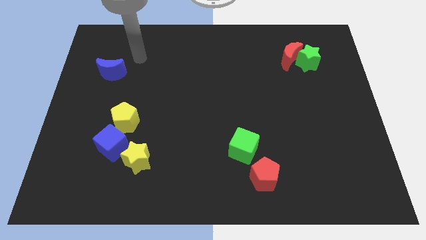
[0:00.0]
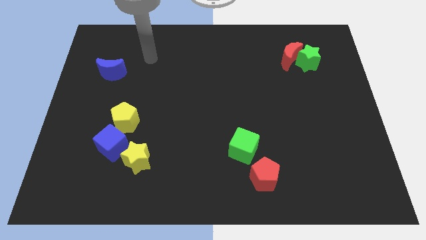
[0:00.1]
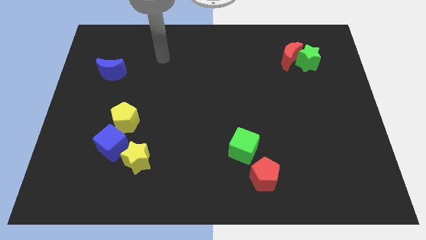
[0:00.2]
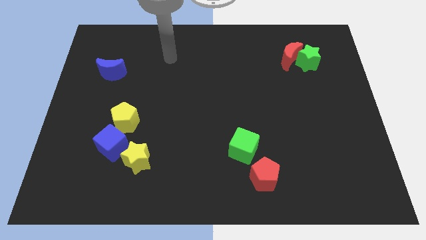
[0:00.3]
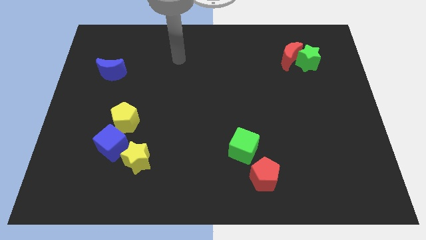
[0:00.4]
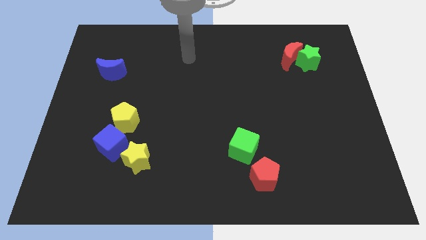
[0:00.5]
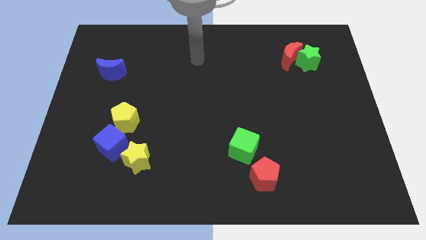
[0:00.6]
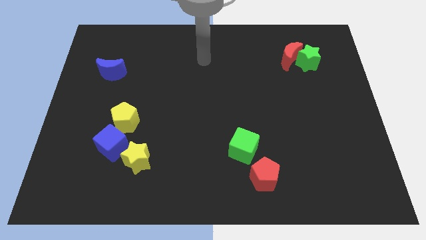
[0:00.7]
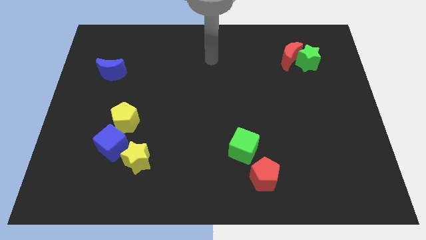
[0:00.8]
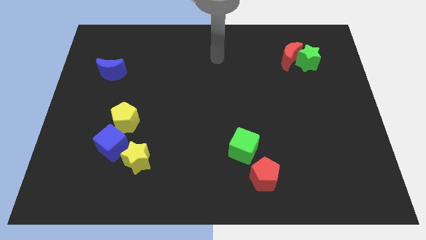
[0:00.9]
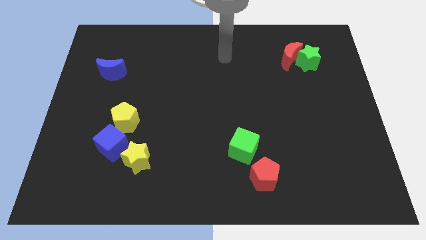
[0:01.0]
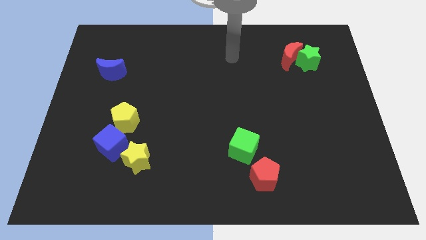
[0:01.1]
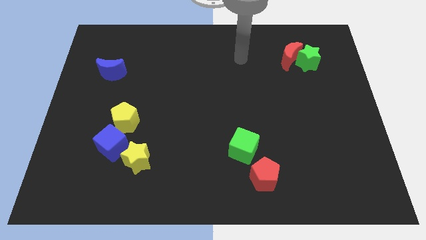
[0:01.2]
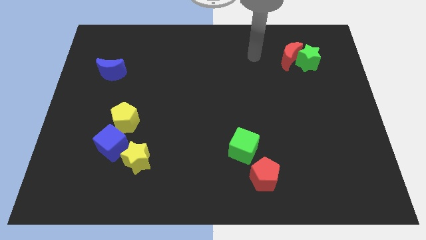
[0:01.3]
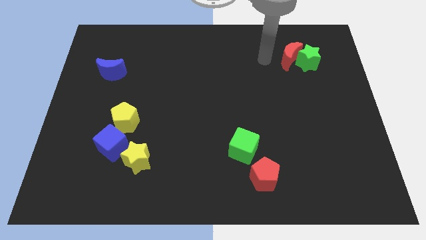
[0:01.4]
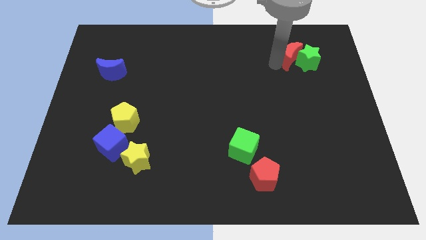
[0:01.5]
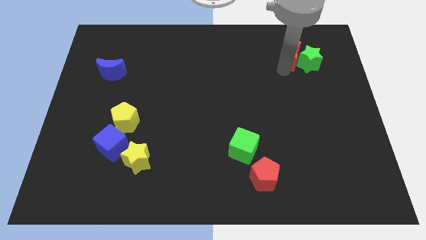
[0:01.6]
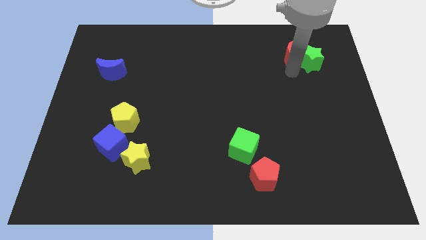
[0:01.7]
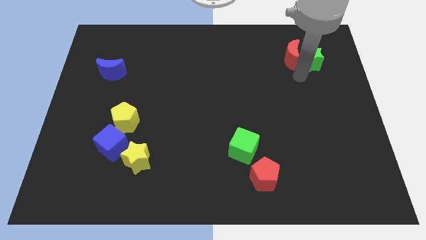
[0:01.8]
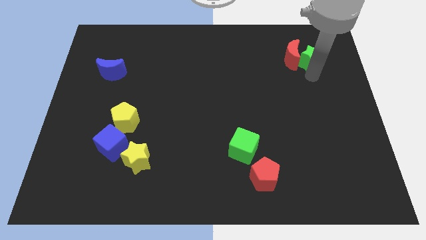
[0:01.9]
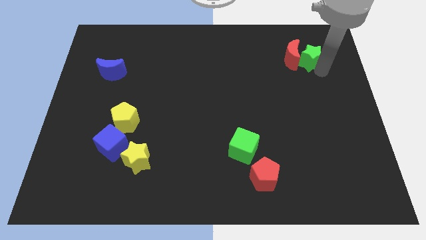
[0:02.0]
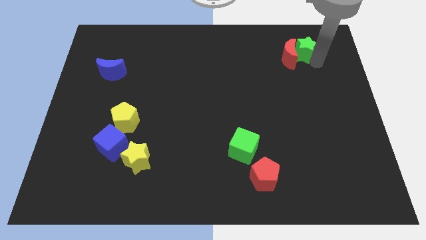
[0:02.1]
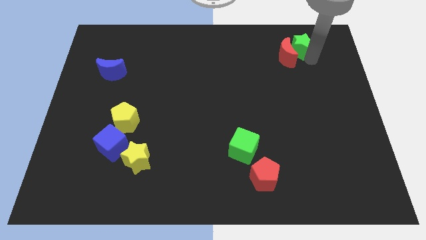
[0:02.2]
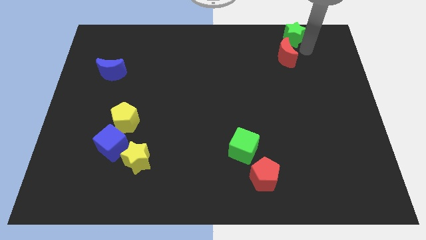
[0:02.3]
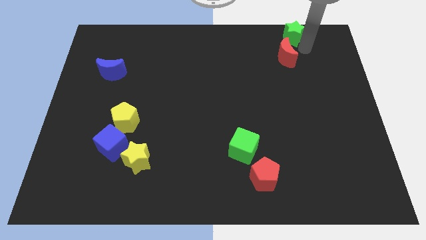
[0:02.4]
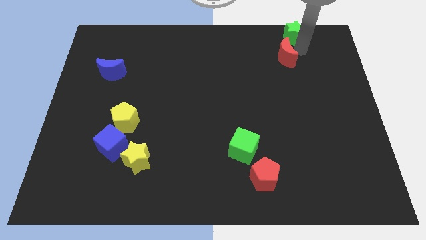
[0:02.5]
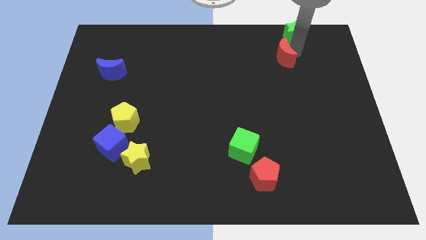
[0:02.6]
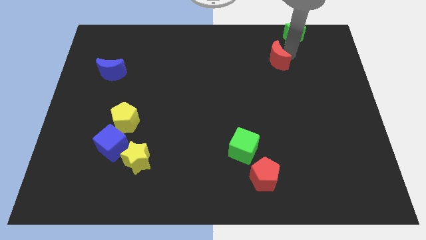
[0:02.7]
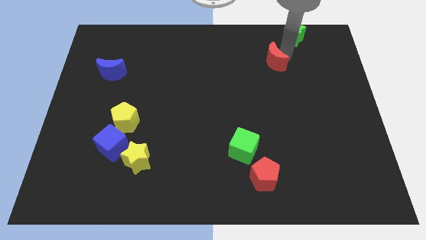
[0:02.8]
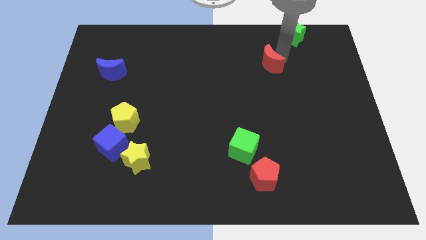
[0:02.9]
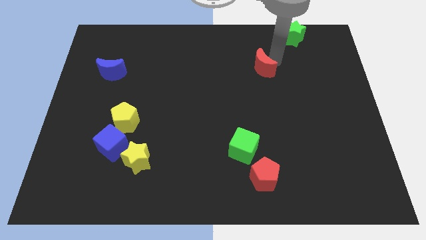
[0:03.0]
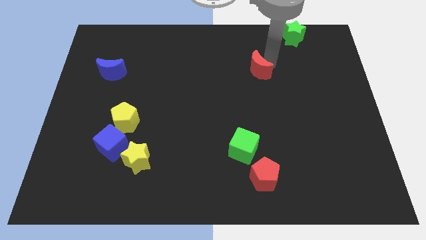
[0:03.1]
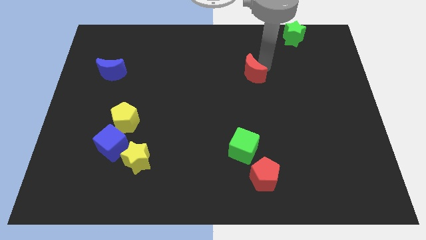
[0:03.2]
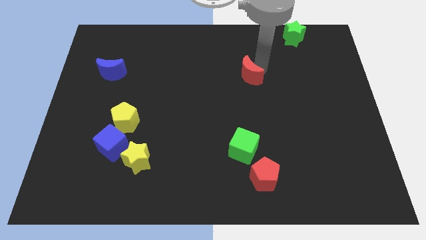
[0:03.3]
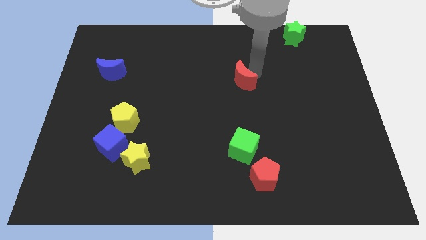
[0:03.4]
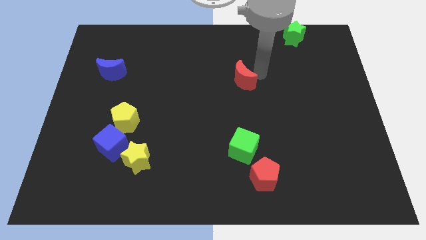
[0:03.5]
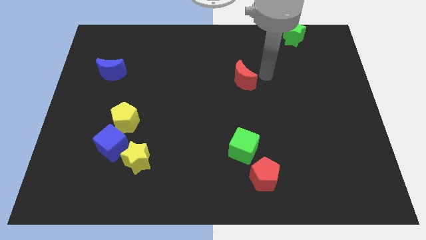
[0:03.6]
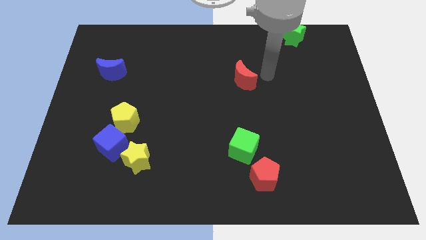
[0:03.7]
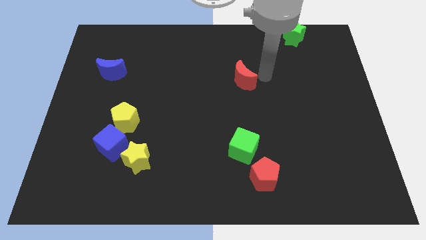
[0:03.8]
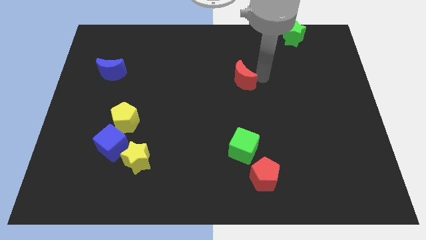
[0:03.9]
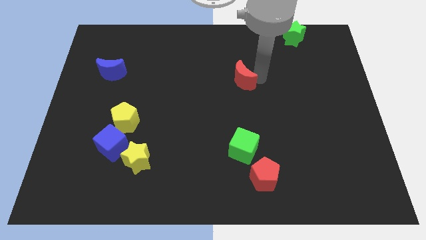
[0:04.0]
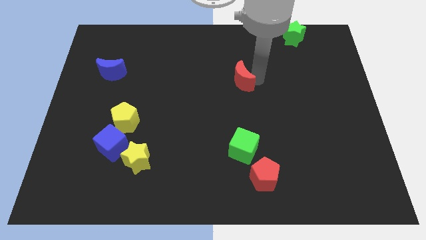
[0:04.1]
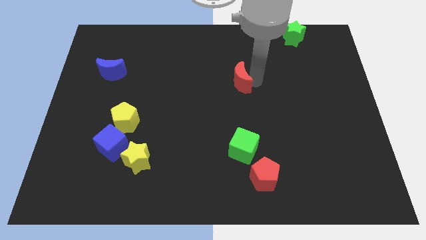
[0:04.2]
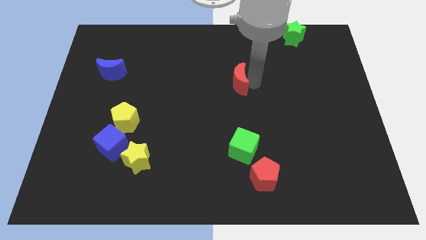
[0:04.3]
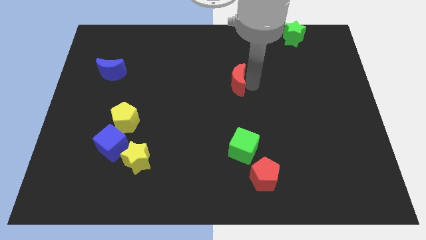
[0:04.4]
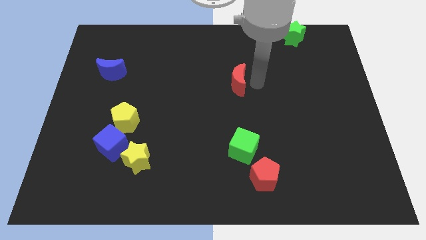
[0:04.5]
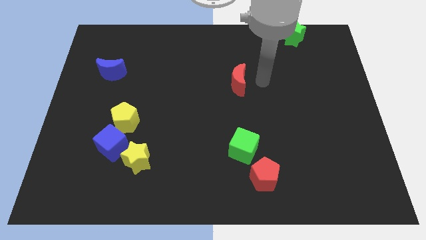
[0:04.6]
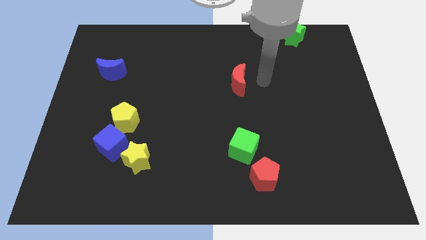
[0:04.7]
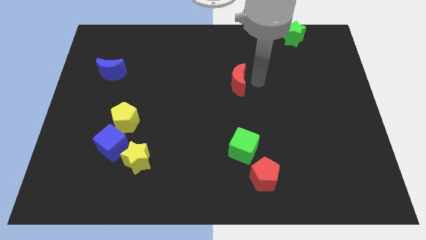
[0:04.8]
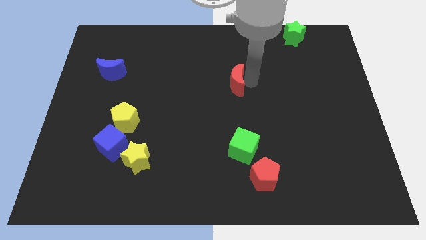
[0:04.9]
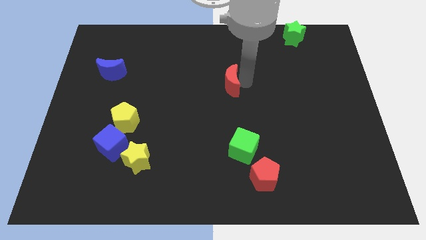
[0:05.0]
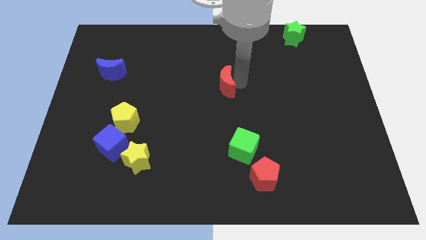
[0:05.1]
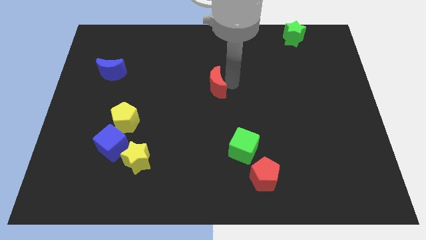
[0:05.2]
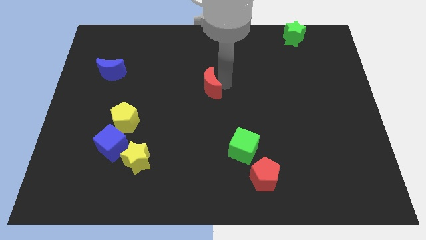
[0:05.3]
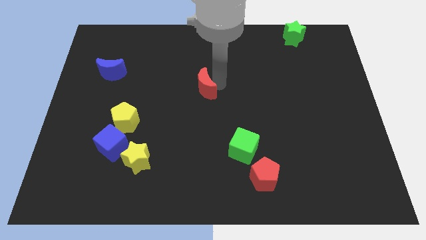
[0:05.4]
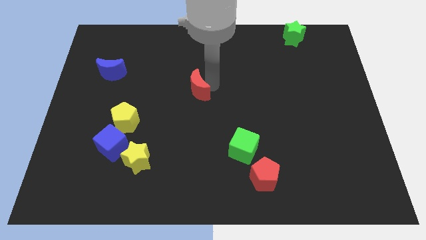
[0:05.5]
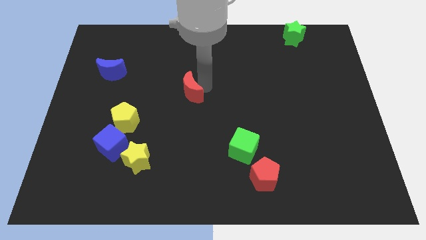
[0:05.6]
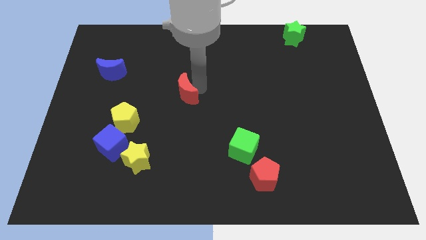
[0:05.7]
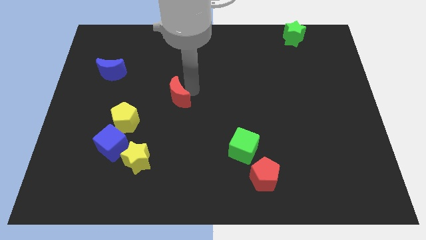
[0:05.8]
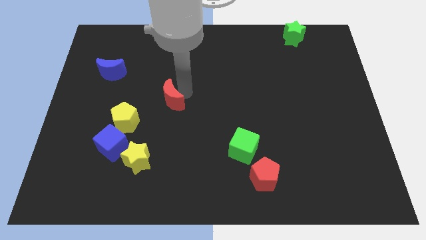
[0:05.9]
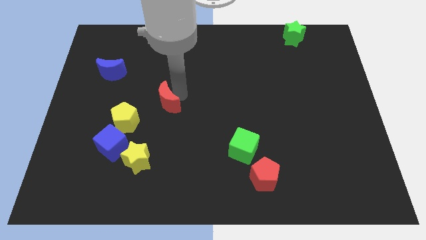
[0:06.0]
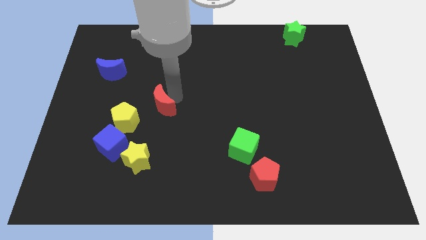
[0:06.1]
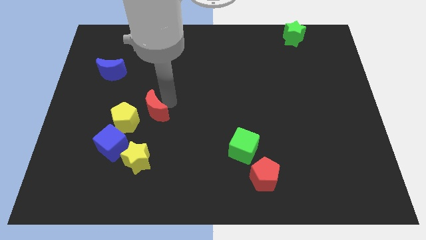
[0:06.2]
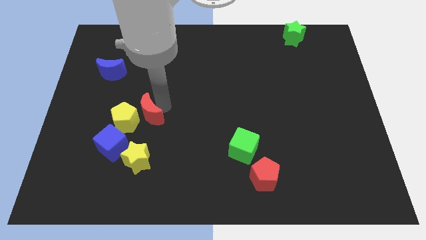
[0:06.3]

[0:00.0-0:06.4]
move the red moon next to the yellow pentagon
